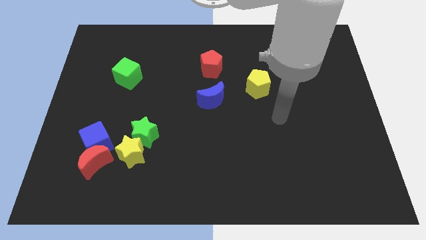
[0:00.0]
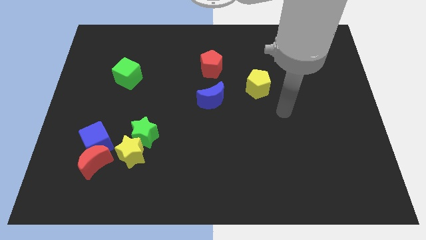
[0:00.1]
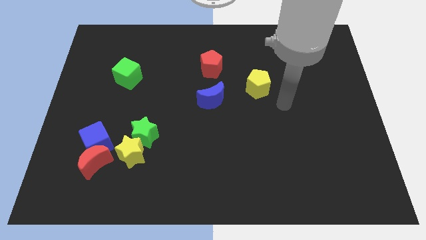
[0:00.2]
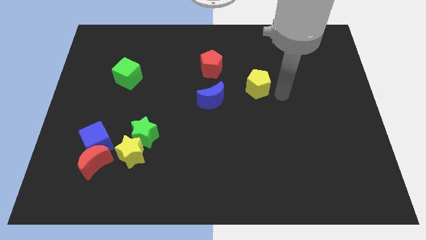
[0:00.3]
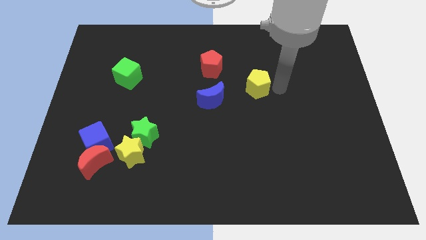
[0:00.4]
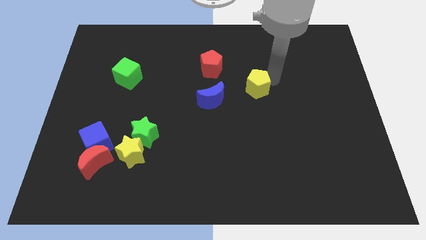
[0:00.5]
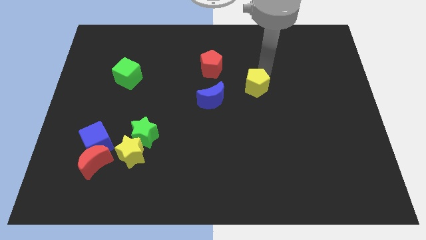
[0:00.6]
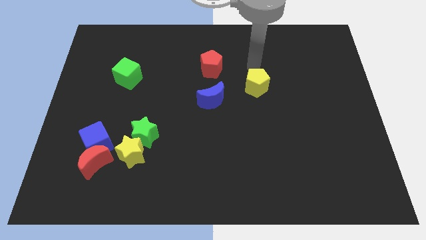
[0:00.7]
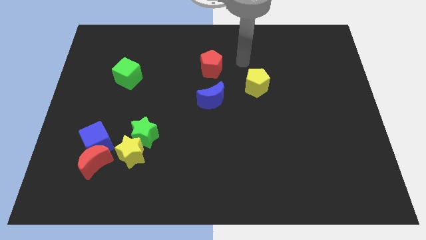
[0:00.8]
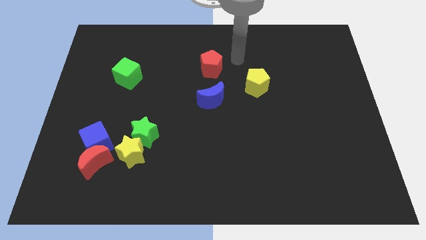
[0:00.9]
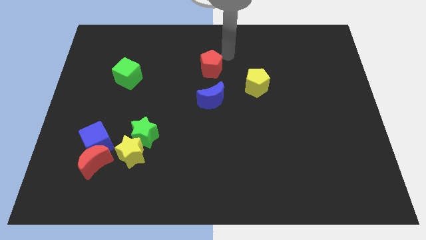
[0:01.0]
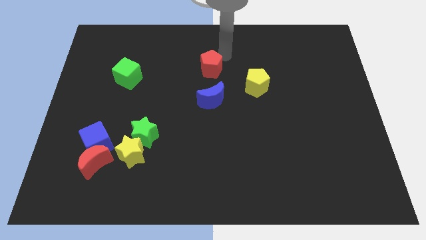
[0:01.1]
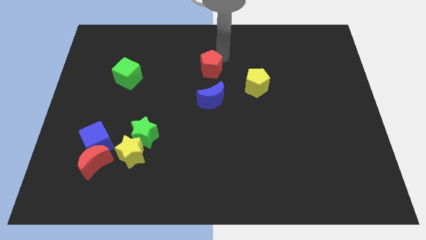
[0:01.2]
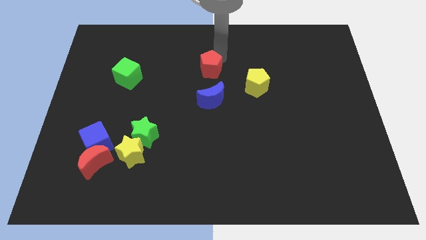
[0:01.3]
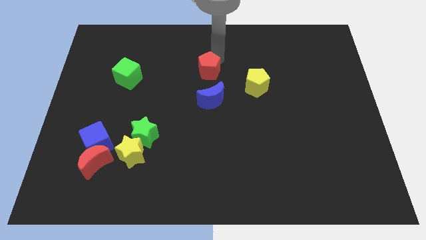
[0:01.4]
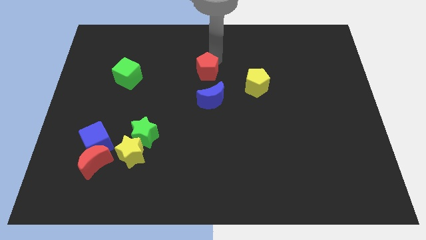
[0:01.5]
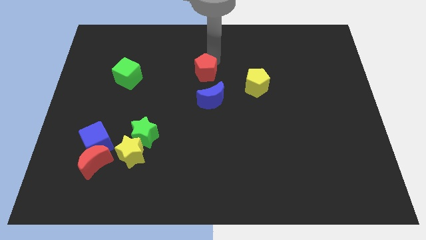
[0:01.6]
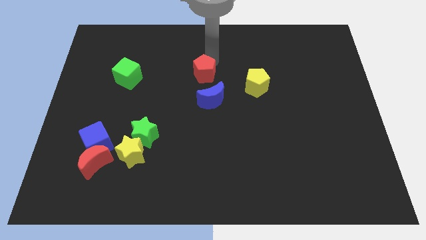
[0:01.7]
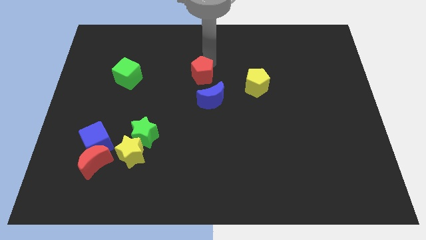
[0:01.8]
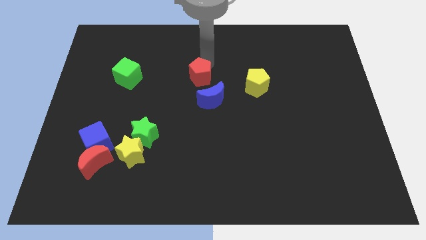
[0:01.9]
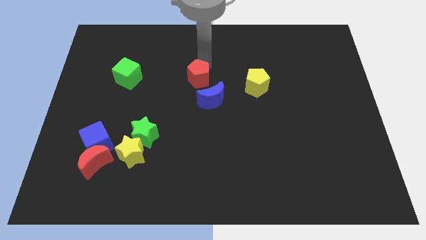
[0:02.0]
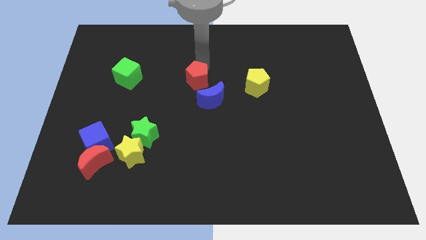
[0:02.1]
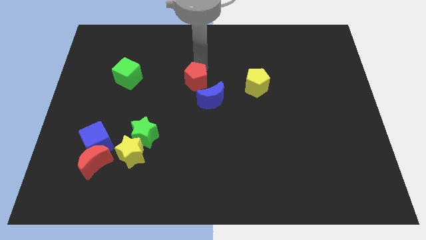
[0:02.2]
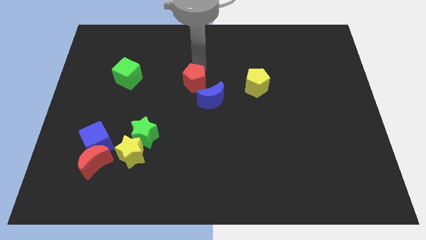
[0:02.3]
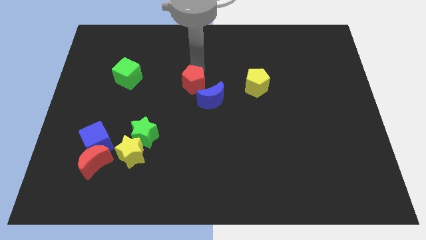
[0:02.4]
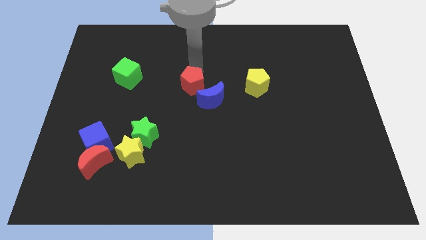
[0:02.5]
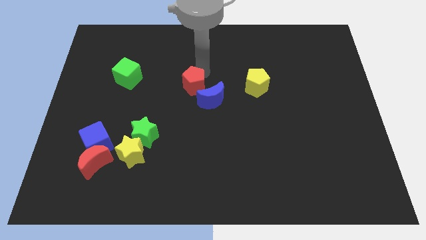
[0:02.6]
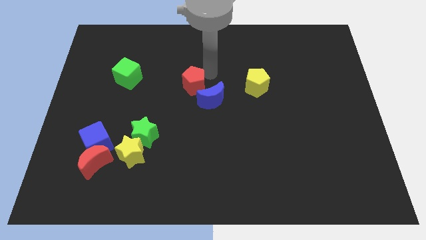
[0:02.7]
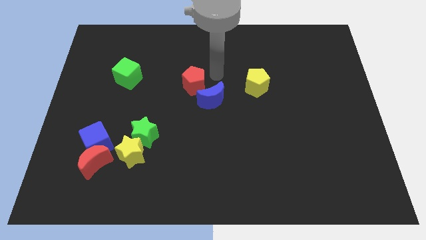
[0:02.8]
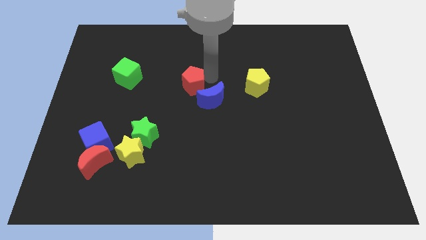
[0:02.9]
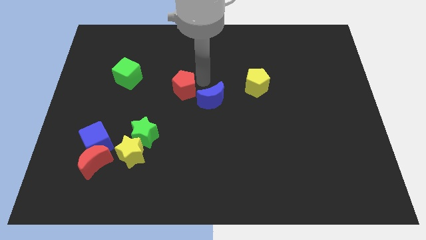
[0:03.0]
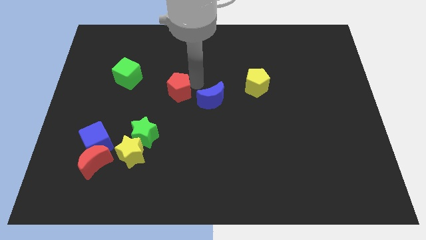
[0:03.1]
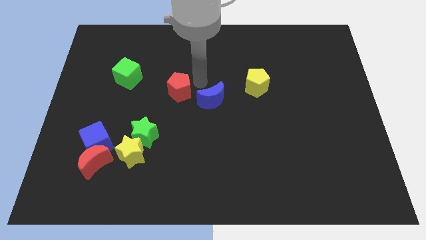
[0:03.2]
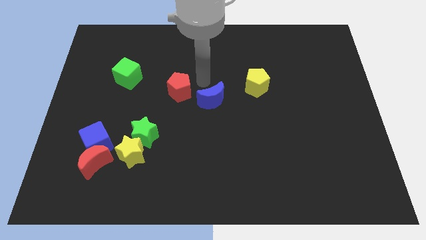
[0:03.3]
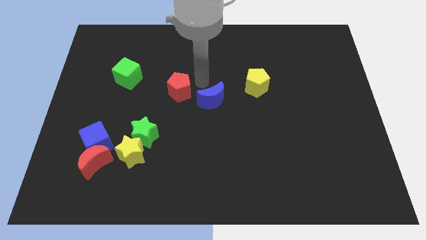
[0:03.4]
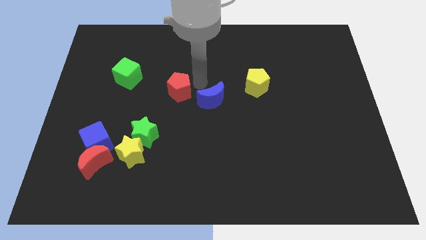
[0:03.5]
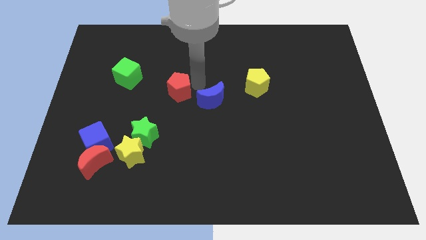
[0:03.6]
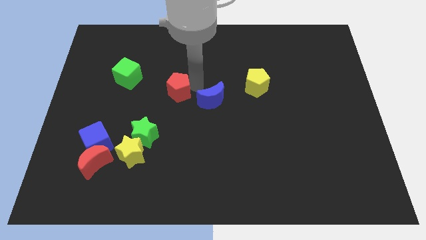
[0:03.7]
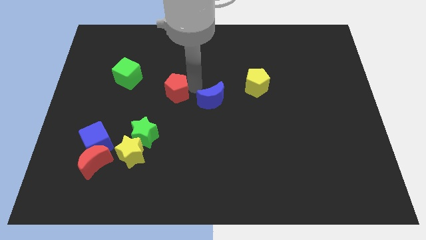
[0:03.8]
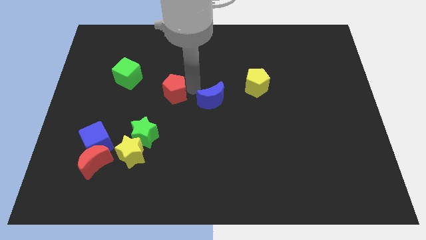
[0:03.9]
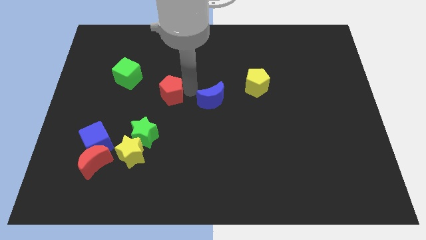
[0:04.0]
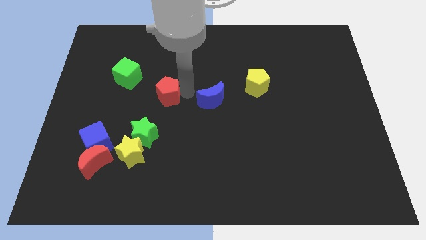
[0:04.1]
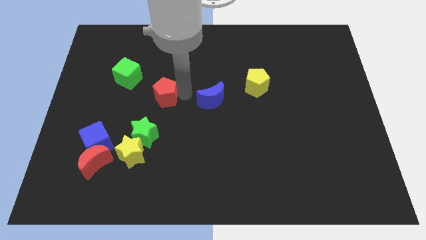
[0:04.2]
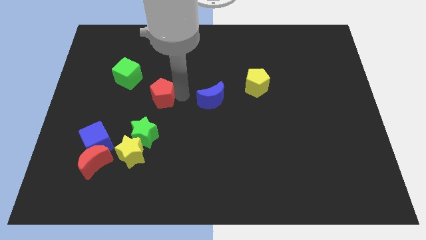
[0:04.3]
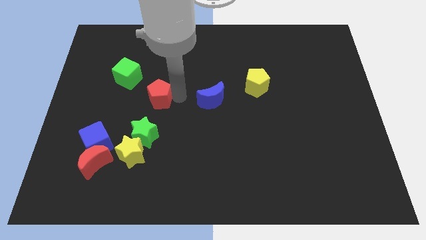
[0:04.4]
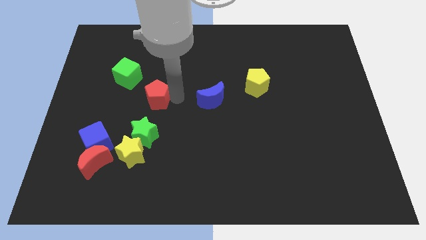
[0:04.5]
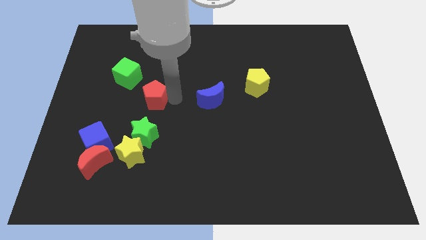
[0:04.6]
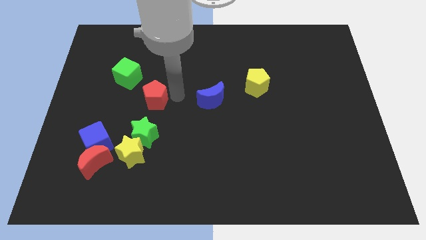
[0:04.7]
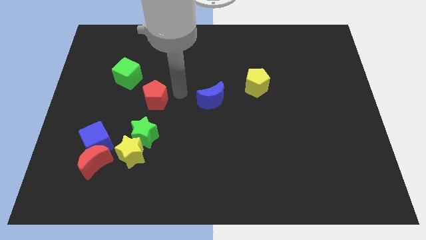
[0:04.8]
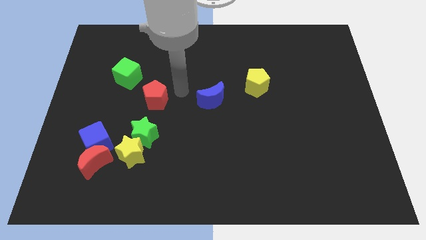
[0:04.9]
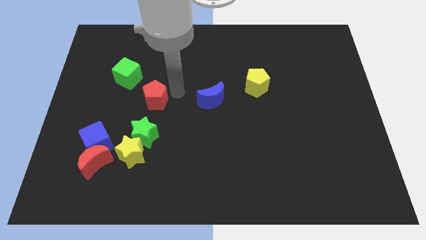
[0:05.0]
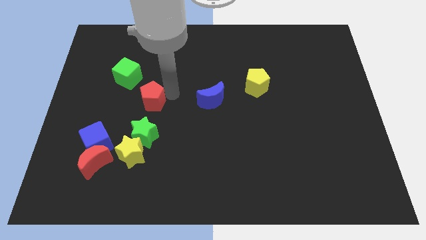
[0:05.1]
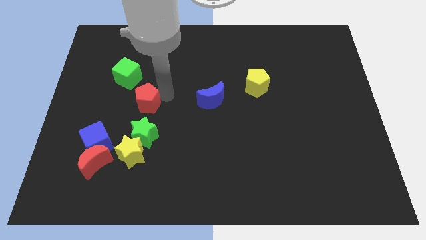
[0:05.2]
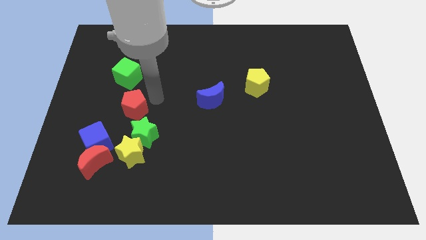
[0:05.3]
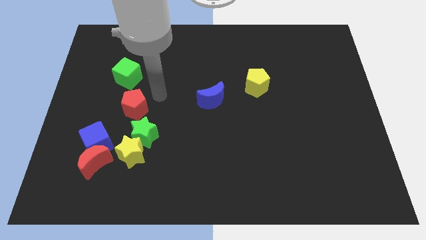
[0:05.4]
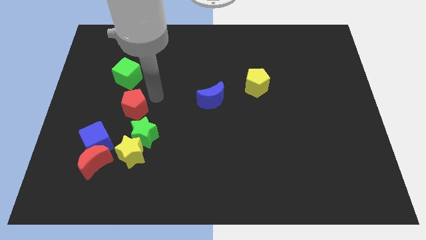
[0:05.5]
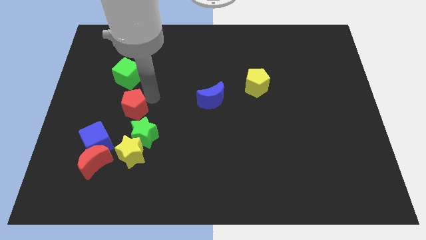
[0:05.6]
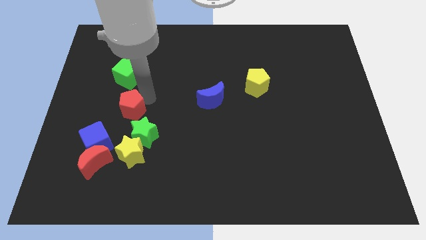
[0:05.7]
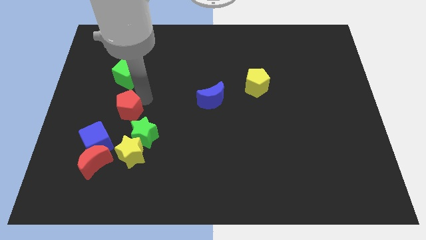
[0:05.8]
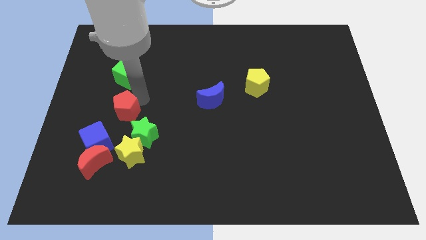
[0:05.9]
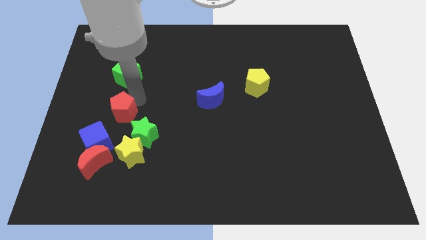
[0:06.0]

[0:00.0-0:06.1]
move the red pentagon above the red moon

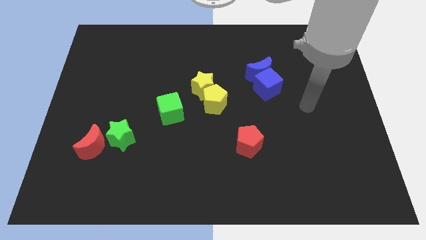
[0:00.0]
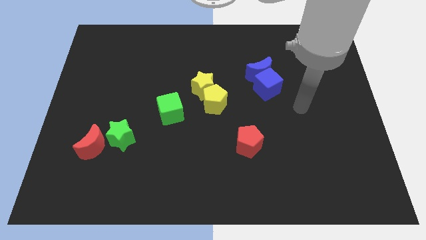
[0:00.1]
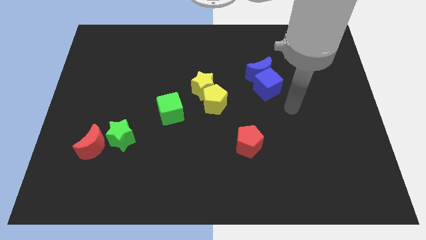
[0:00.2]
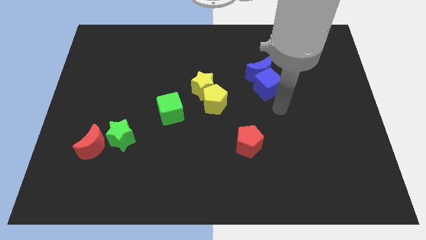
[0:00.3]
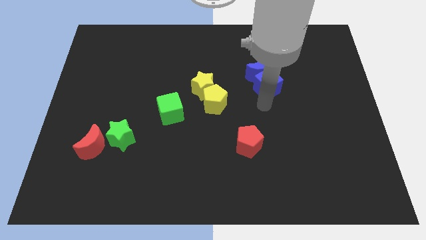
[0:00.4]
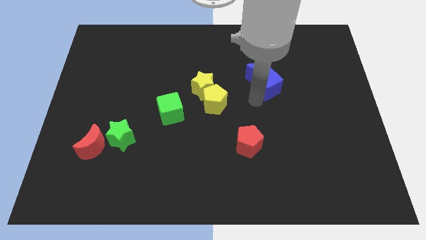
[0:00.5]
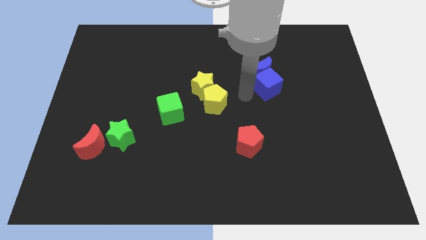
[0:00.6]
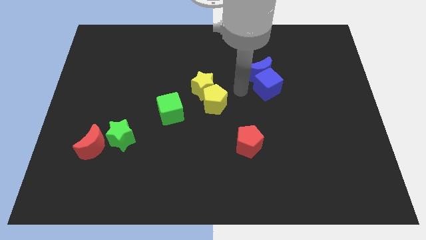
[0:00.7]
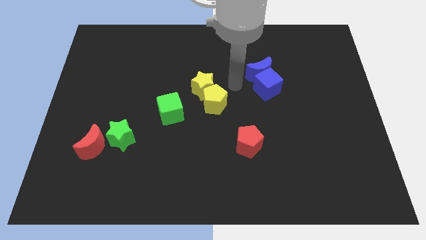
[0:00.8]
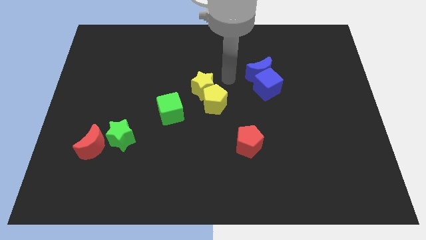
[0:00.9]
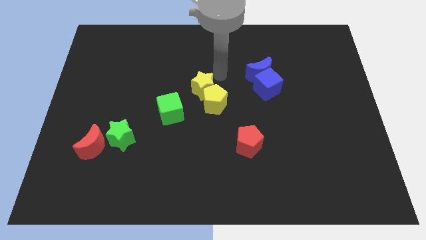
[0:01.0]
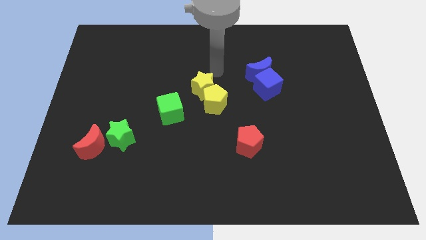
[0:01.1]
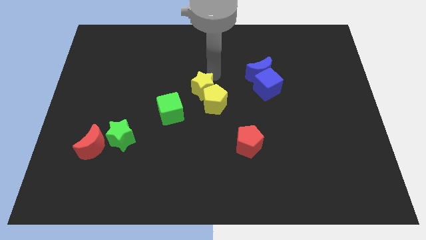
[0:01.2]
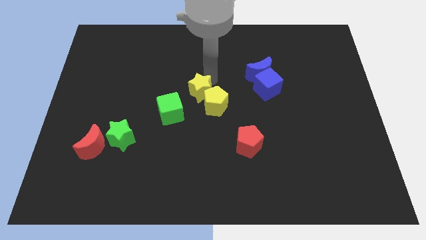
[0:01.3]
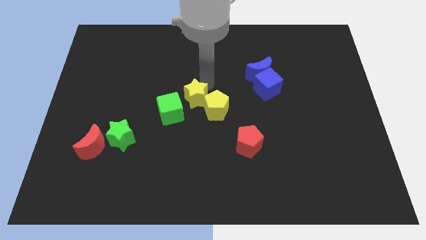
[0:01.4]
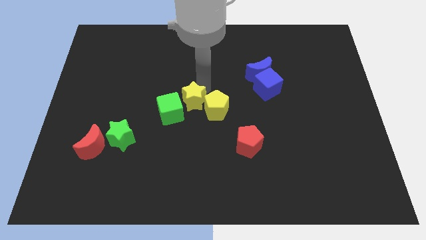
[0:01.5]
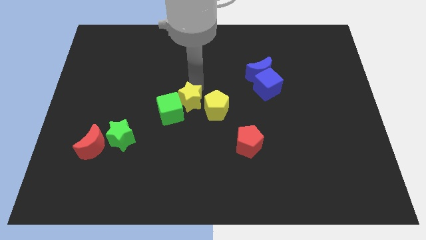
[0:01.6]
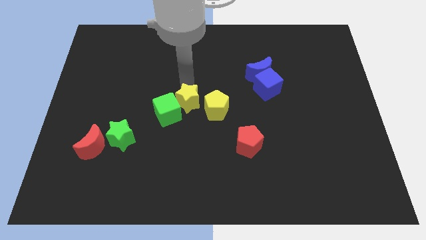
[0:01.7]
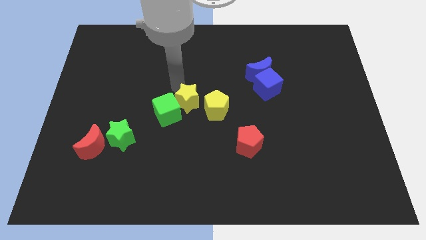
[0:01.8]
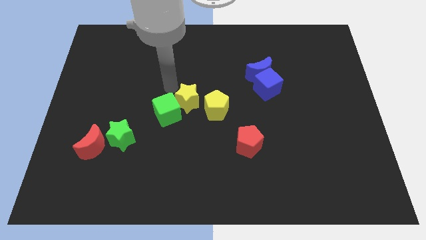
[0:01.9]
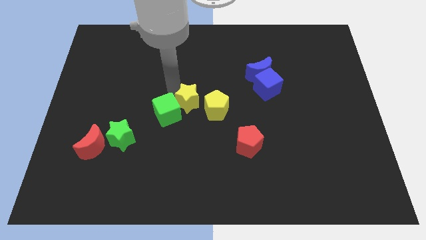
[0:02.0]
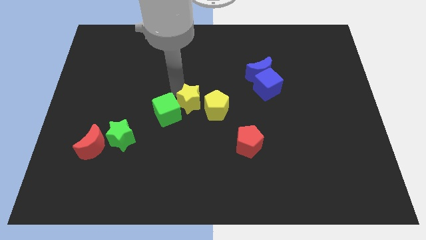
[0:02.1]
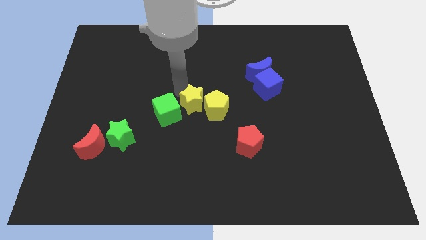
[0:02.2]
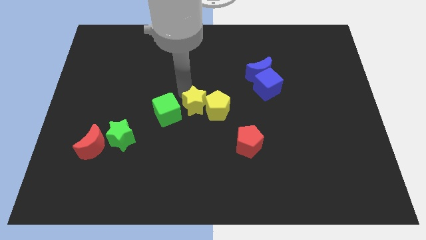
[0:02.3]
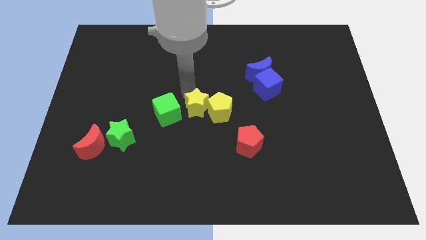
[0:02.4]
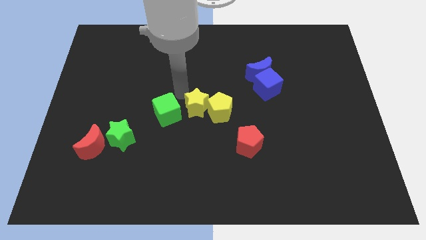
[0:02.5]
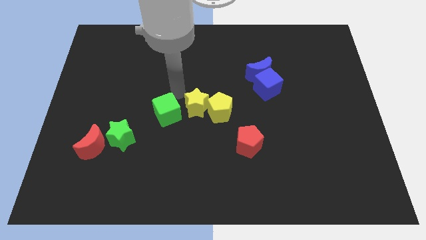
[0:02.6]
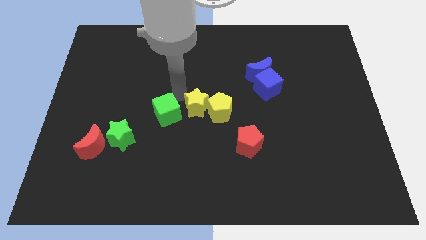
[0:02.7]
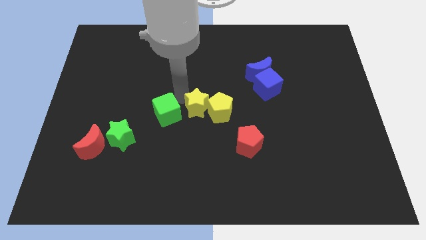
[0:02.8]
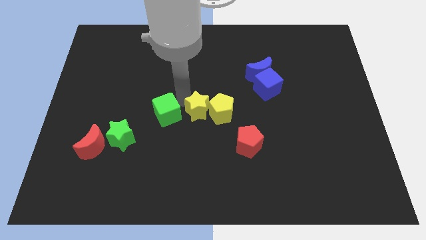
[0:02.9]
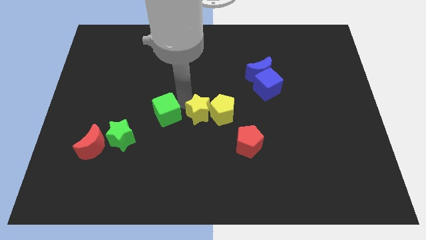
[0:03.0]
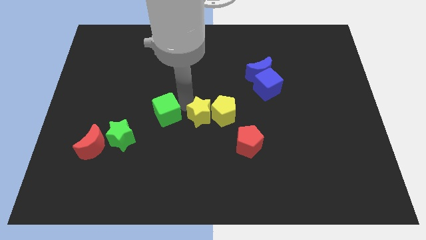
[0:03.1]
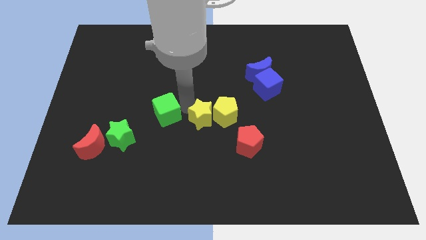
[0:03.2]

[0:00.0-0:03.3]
slide the yellow star to the top left of the red pentagon
